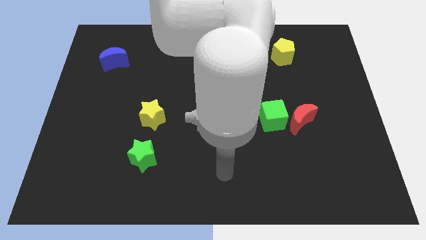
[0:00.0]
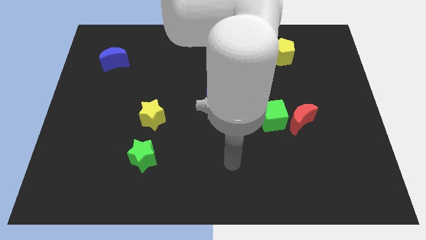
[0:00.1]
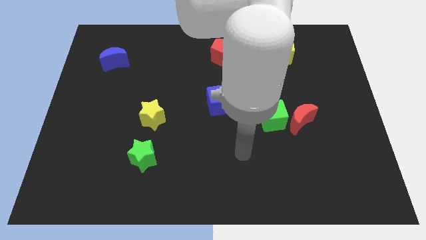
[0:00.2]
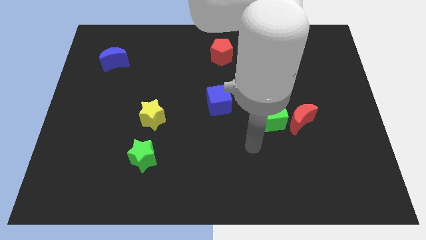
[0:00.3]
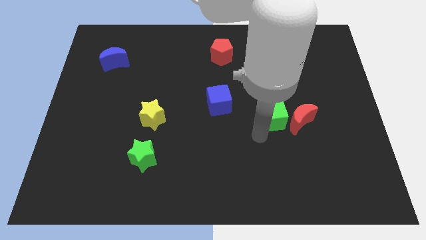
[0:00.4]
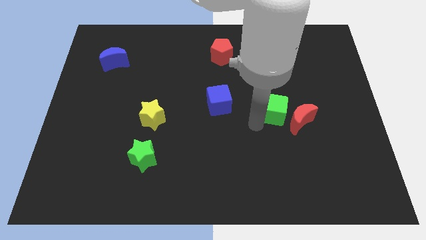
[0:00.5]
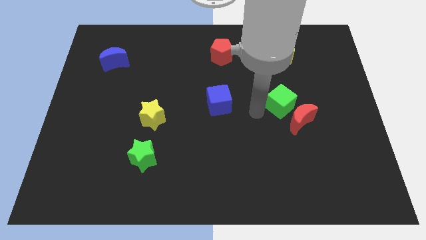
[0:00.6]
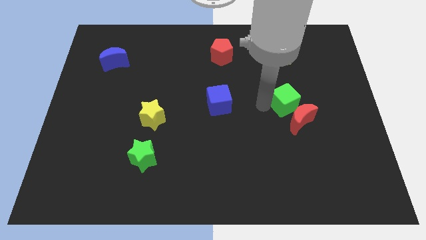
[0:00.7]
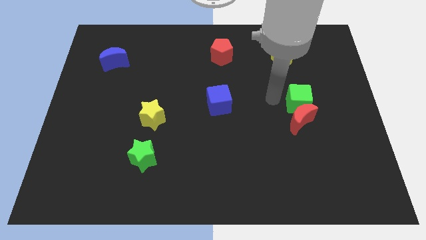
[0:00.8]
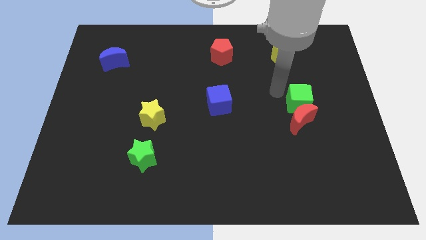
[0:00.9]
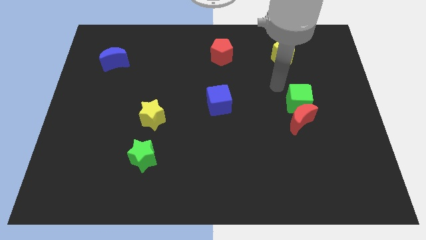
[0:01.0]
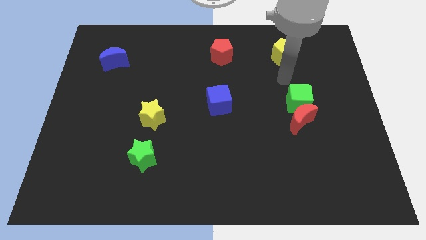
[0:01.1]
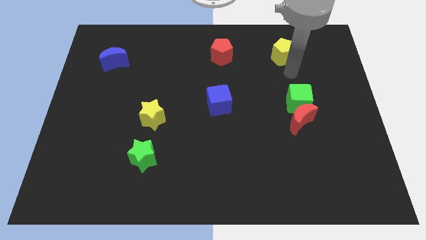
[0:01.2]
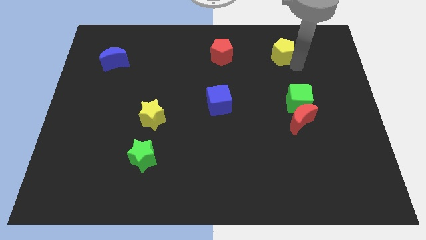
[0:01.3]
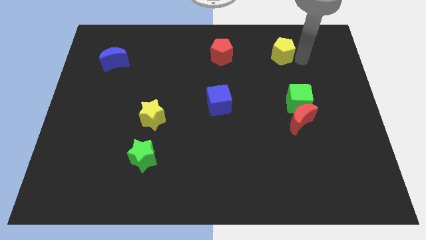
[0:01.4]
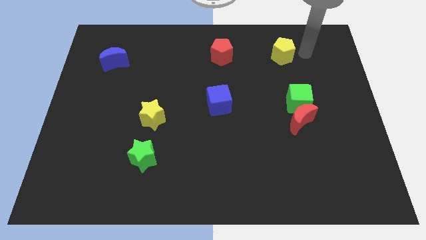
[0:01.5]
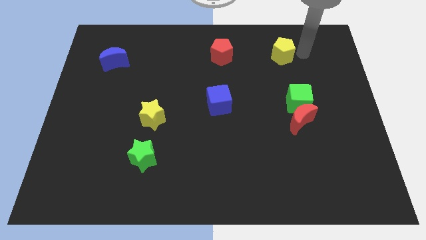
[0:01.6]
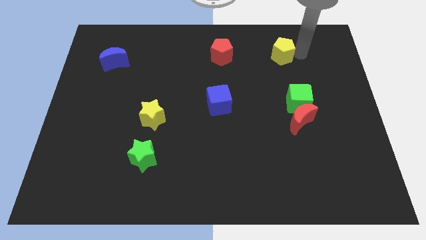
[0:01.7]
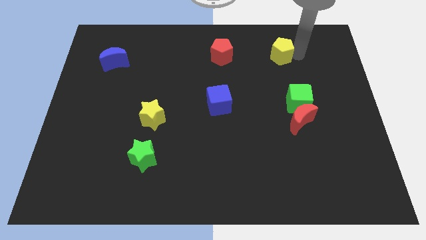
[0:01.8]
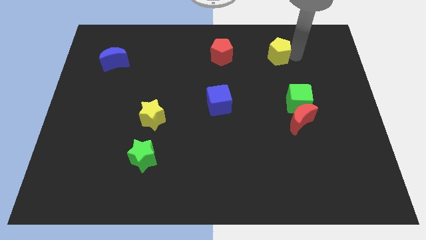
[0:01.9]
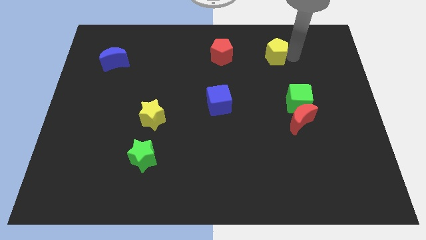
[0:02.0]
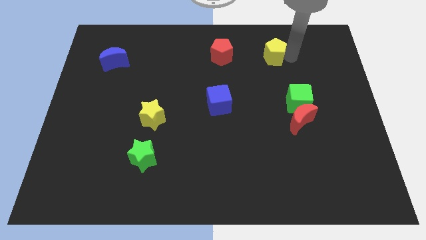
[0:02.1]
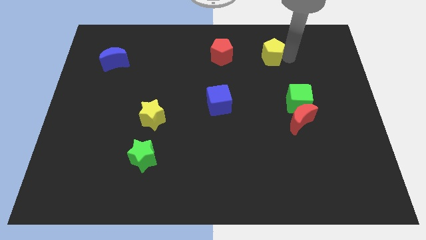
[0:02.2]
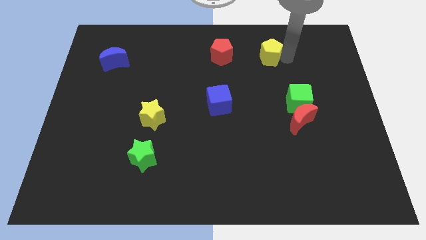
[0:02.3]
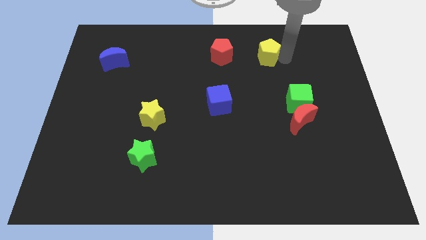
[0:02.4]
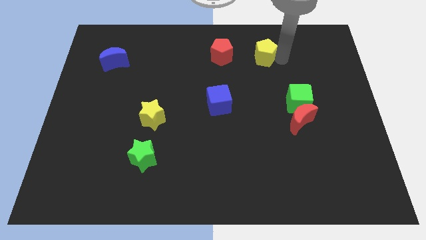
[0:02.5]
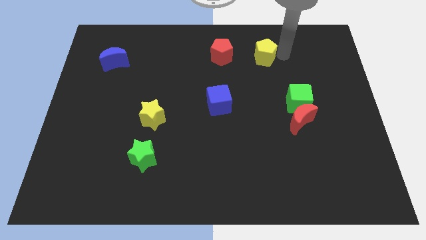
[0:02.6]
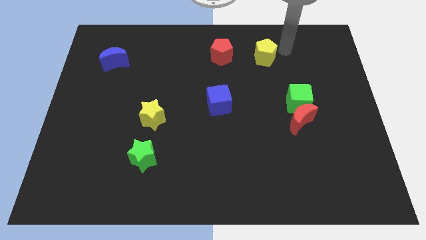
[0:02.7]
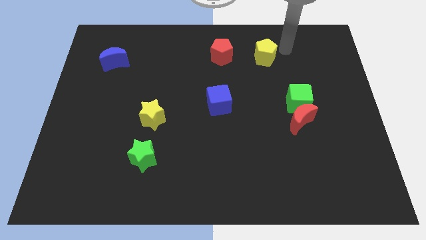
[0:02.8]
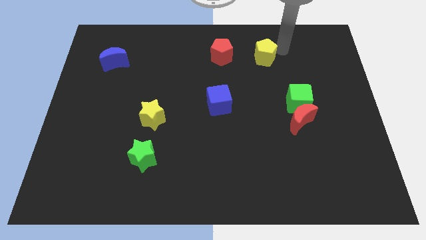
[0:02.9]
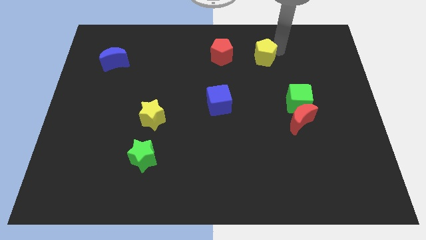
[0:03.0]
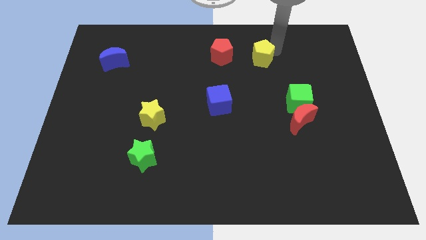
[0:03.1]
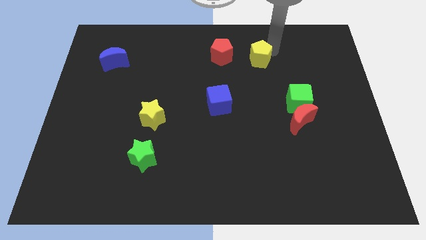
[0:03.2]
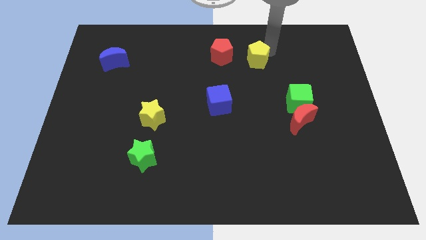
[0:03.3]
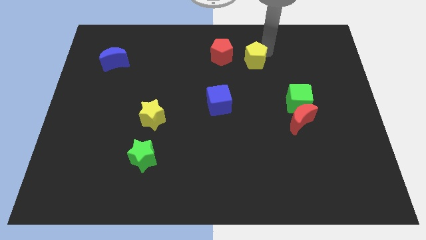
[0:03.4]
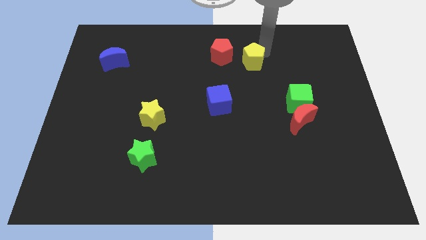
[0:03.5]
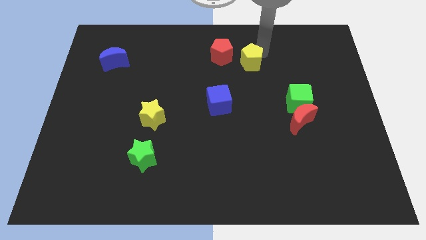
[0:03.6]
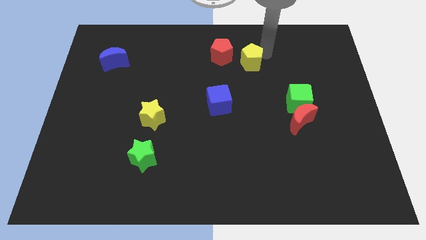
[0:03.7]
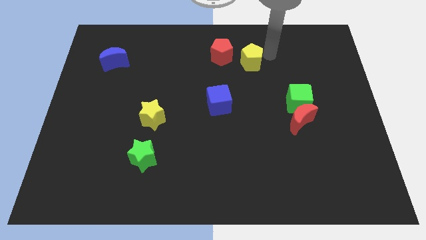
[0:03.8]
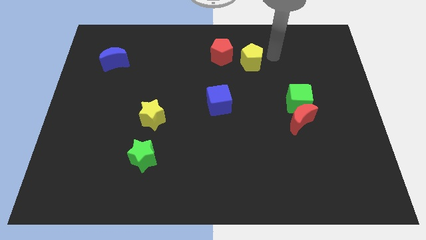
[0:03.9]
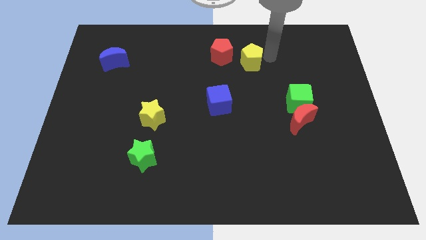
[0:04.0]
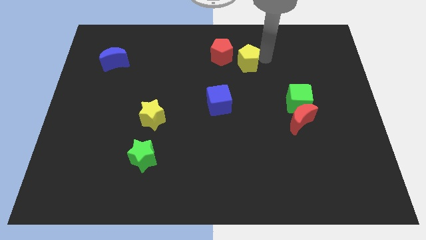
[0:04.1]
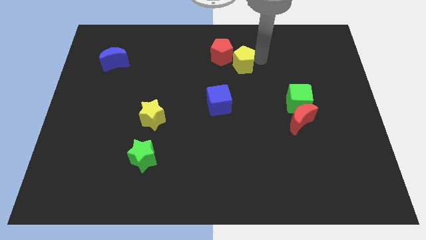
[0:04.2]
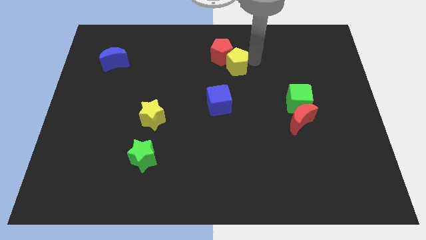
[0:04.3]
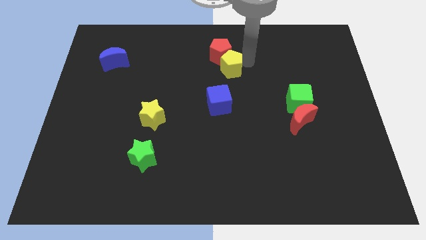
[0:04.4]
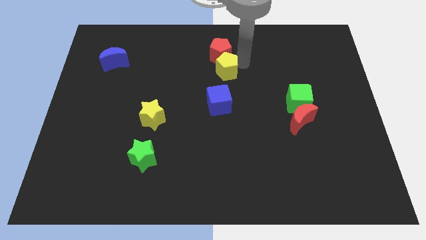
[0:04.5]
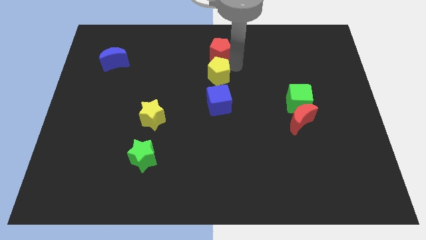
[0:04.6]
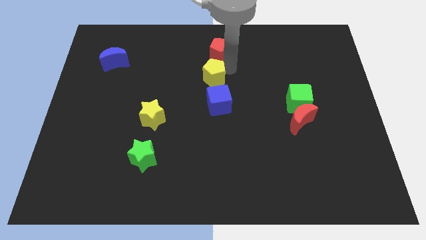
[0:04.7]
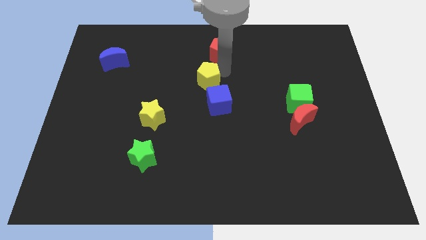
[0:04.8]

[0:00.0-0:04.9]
move the yellow pentagon to the top left of the blue cube

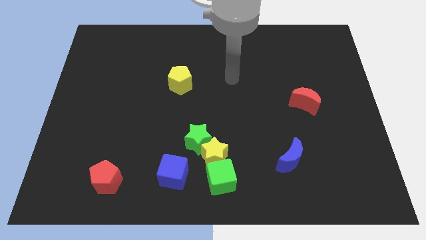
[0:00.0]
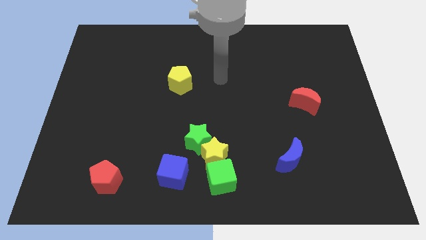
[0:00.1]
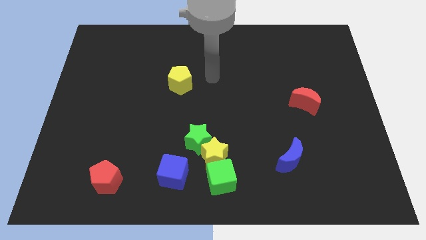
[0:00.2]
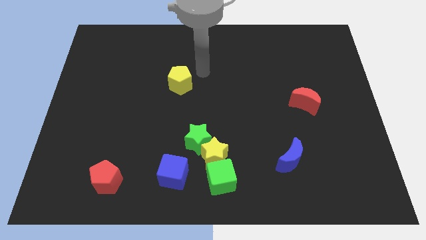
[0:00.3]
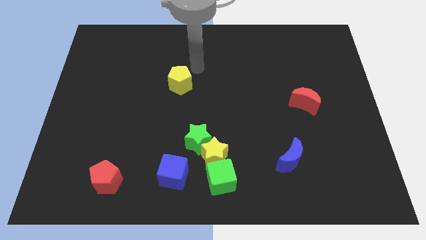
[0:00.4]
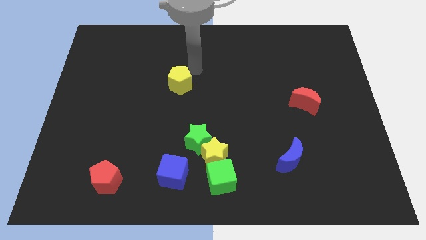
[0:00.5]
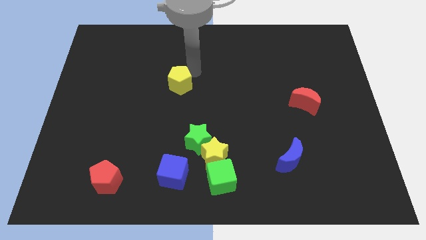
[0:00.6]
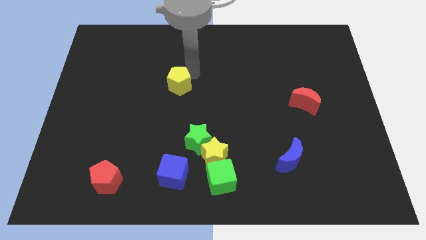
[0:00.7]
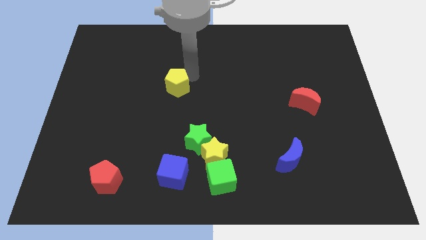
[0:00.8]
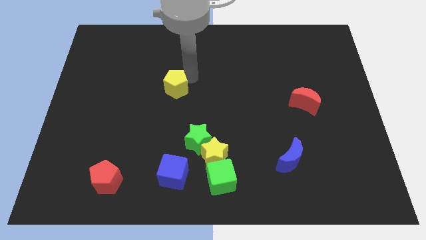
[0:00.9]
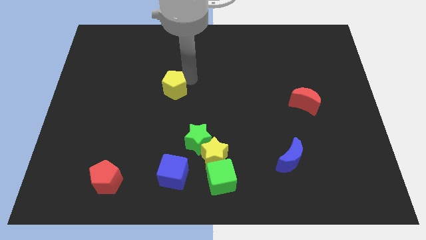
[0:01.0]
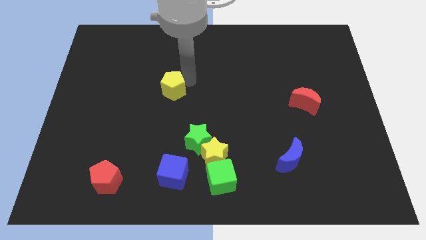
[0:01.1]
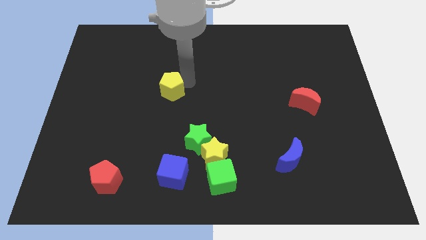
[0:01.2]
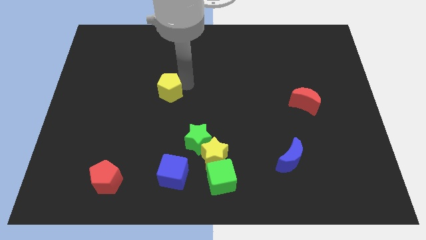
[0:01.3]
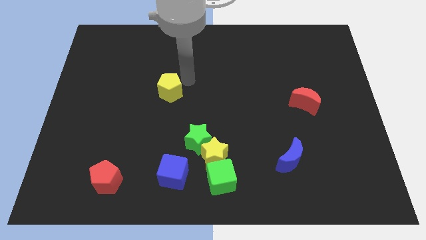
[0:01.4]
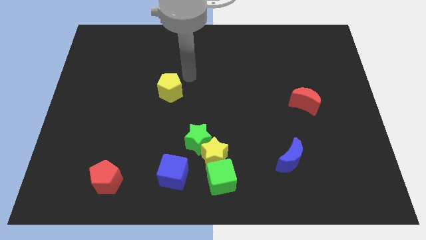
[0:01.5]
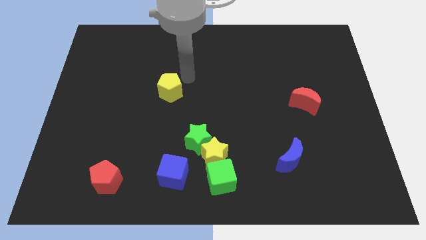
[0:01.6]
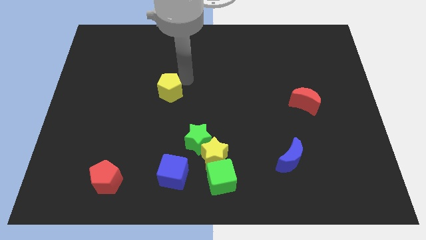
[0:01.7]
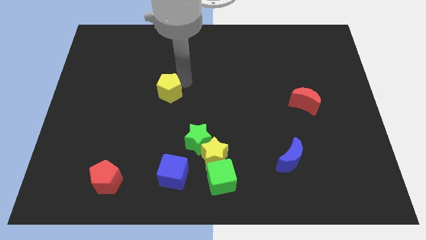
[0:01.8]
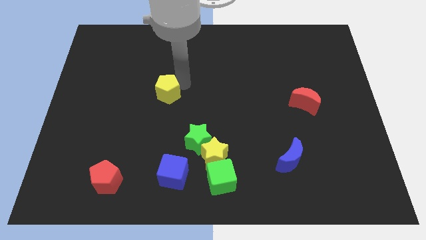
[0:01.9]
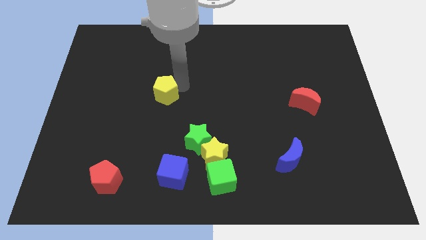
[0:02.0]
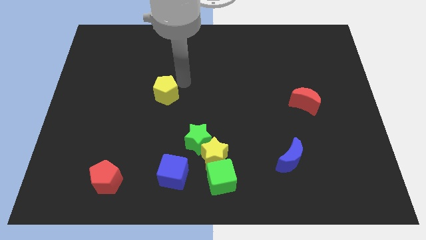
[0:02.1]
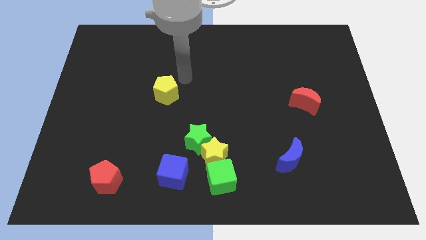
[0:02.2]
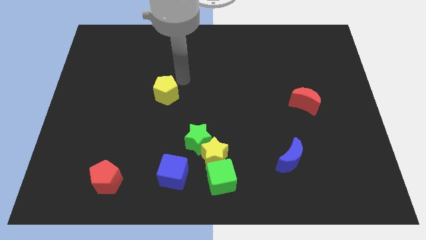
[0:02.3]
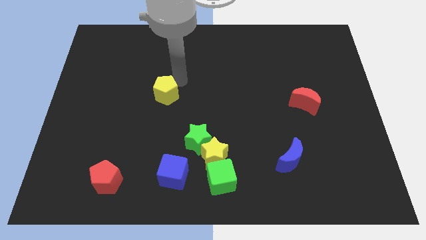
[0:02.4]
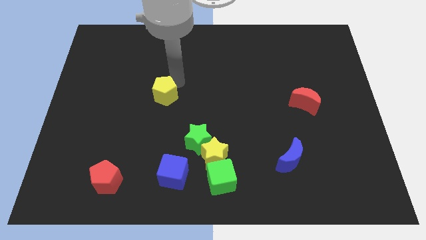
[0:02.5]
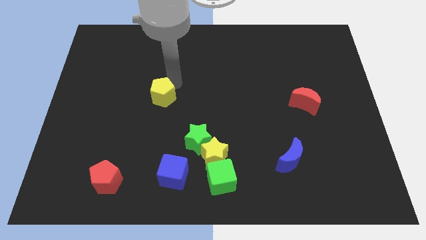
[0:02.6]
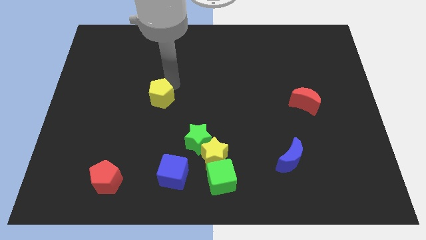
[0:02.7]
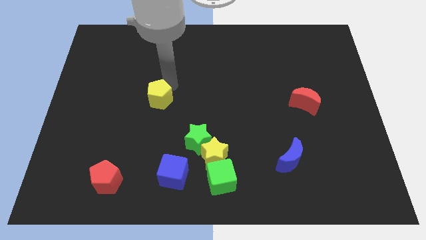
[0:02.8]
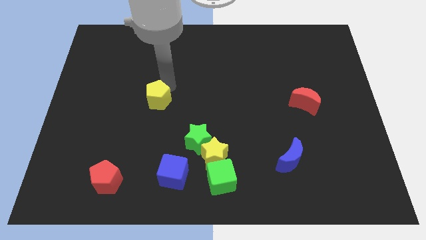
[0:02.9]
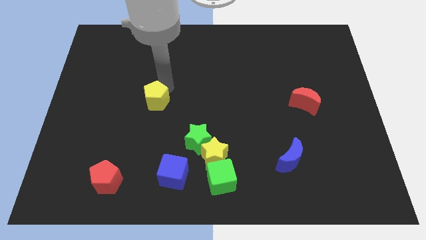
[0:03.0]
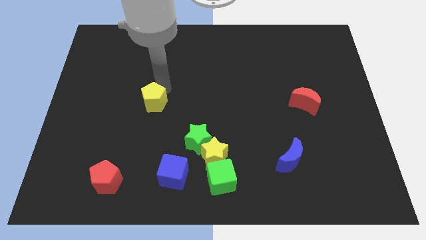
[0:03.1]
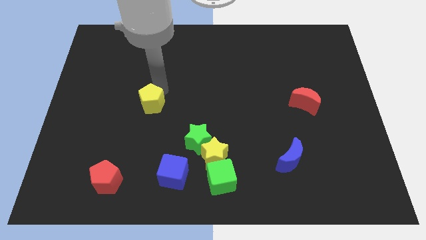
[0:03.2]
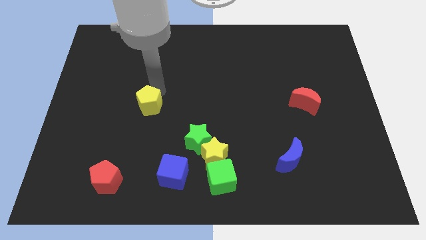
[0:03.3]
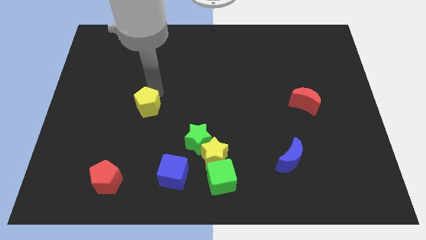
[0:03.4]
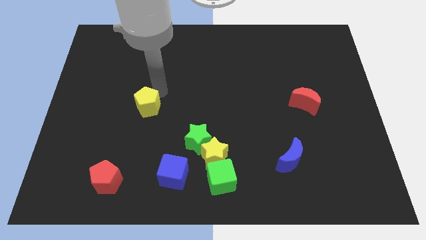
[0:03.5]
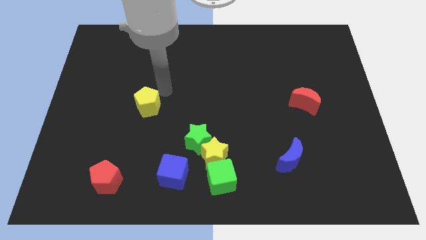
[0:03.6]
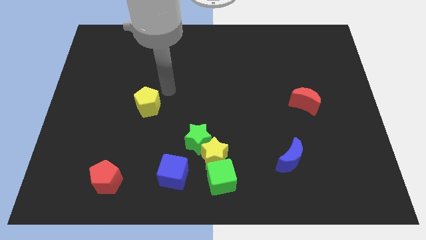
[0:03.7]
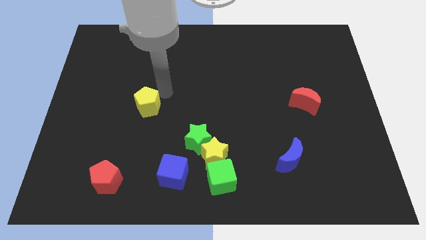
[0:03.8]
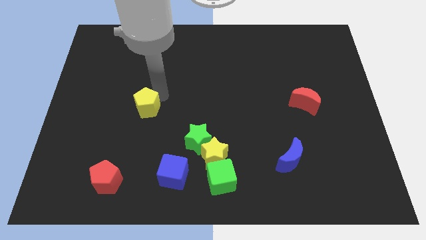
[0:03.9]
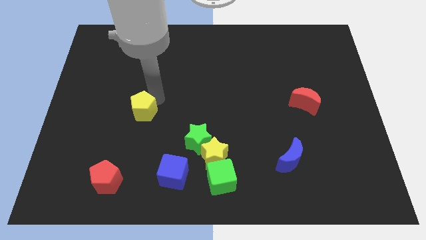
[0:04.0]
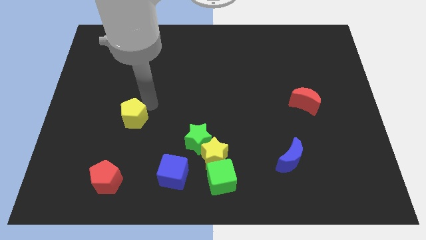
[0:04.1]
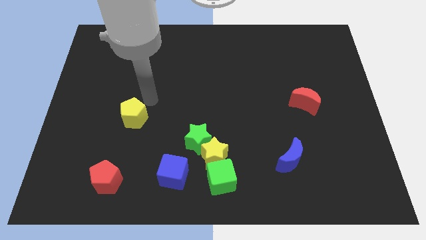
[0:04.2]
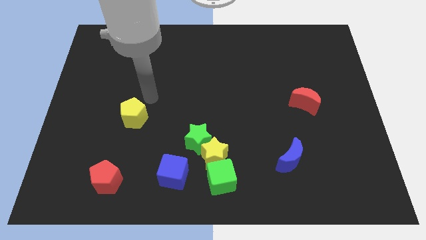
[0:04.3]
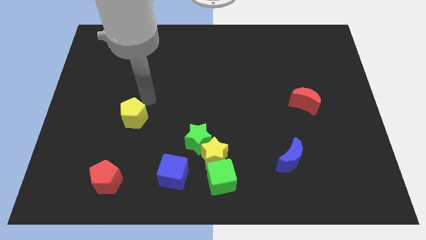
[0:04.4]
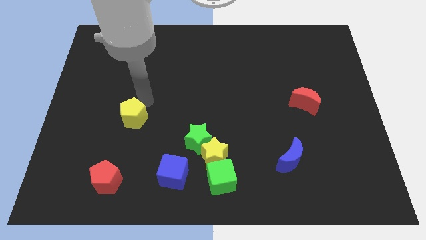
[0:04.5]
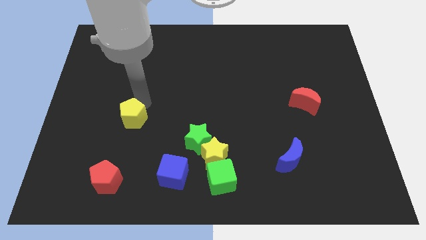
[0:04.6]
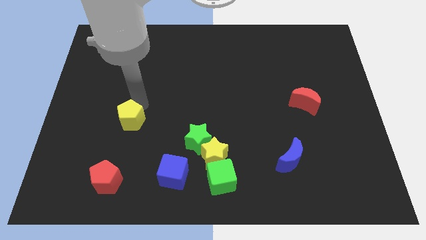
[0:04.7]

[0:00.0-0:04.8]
slide the yellow pentagon above the red pentagon
